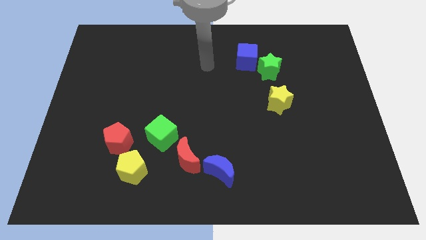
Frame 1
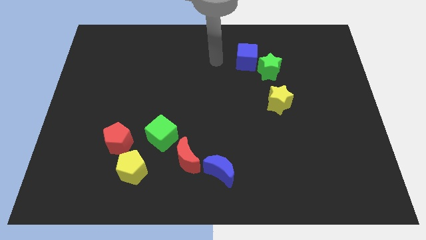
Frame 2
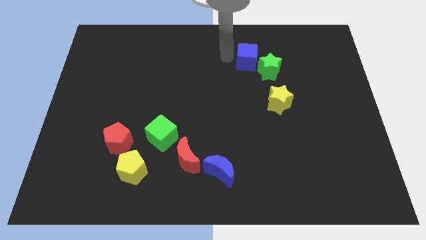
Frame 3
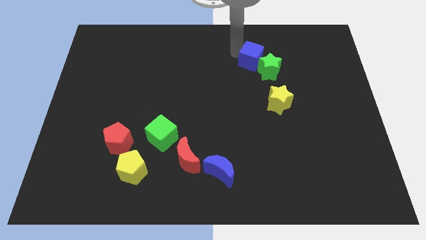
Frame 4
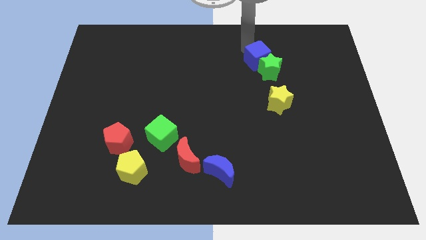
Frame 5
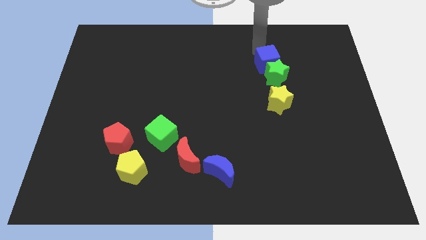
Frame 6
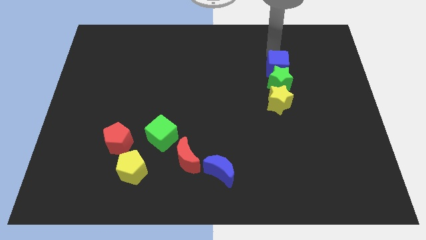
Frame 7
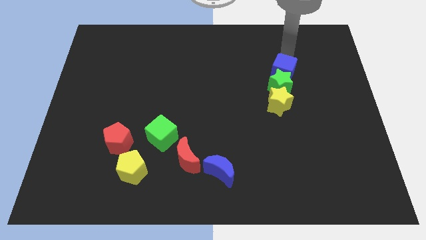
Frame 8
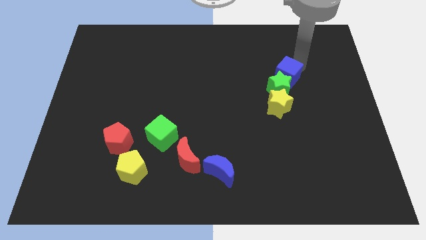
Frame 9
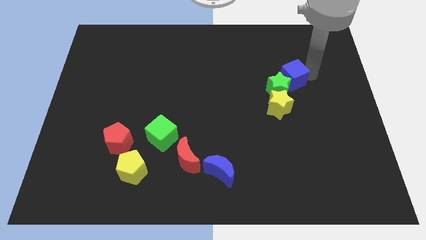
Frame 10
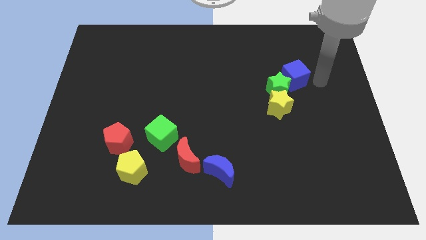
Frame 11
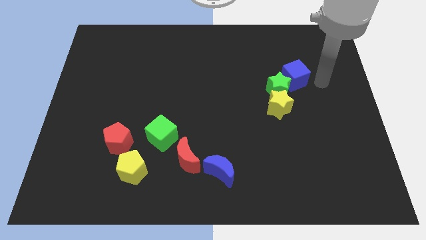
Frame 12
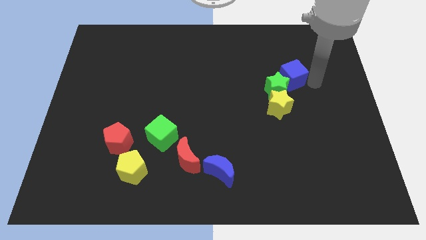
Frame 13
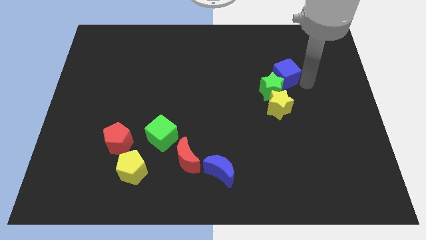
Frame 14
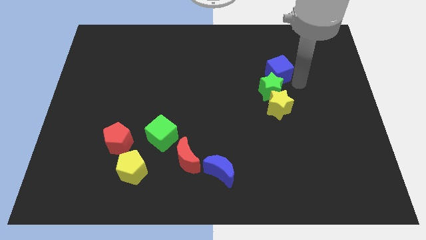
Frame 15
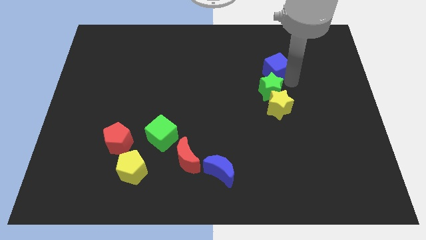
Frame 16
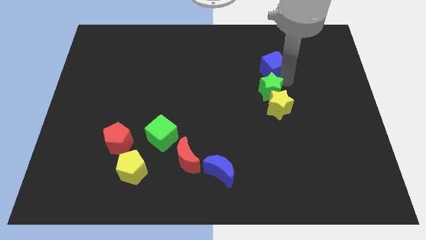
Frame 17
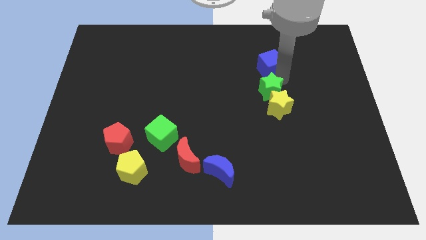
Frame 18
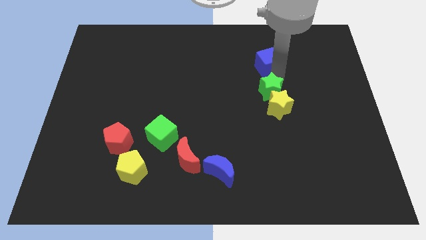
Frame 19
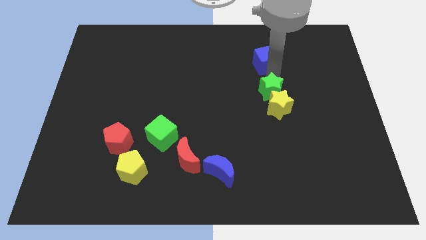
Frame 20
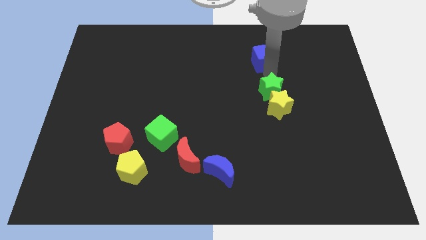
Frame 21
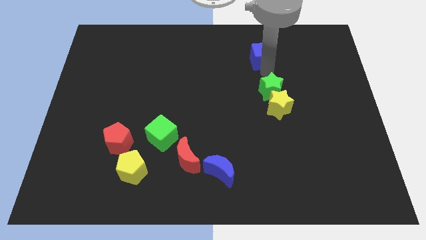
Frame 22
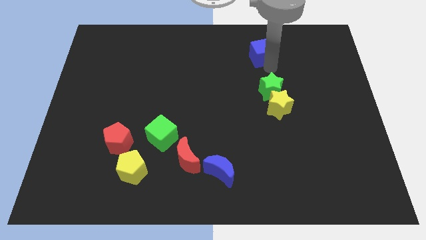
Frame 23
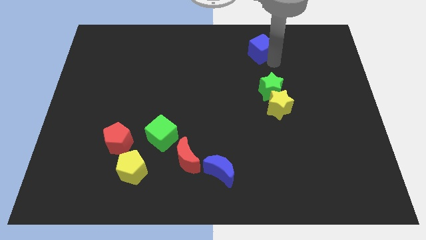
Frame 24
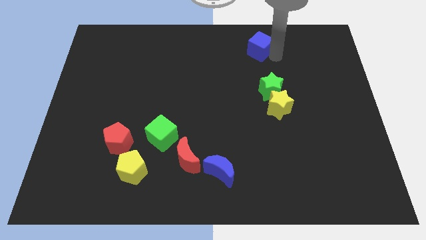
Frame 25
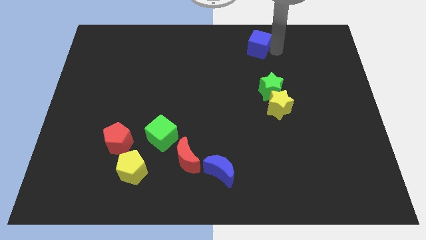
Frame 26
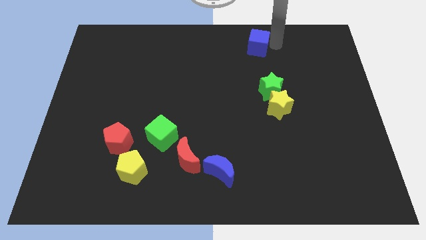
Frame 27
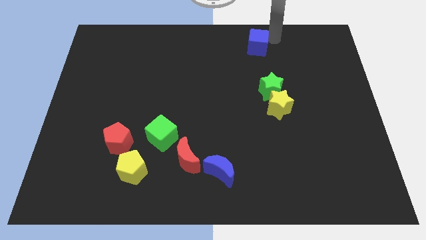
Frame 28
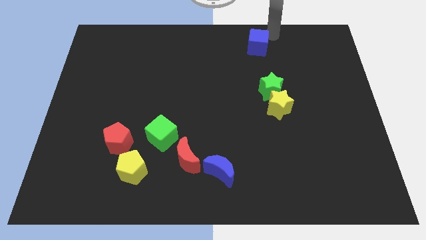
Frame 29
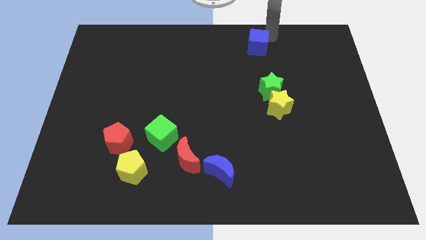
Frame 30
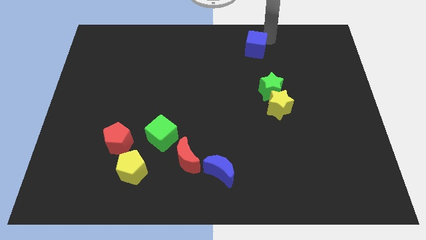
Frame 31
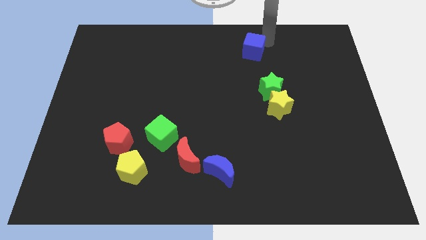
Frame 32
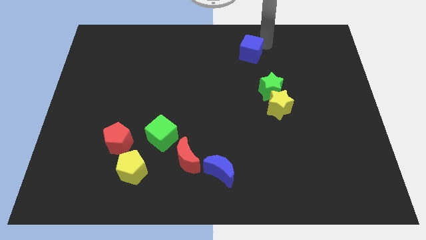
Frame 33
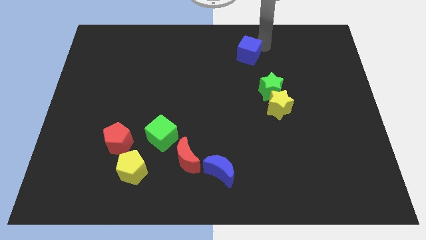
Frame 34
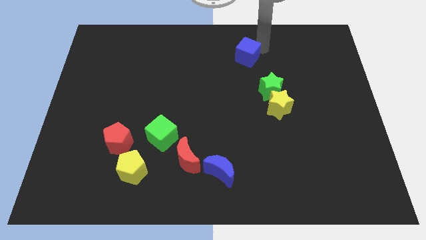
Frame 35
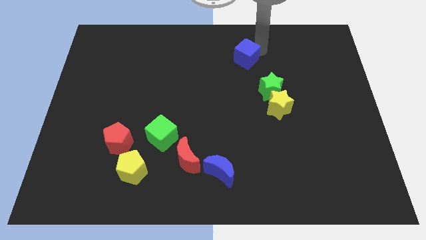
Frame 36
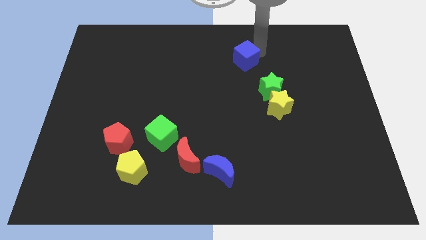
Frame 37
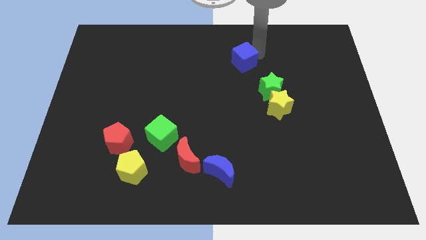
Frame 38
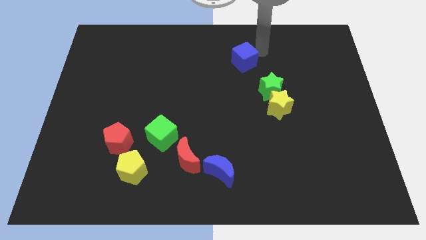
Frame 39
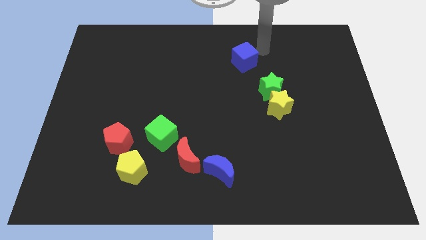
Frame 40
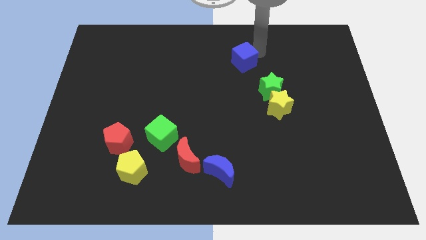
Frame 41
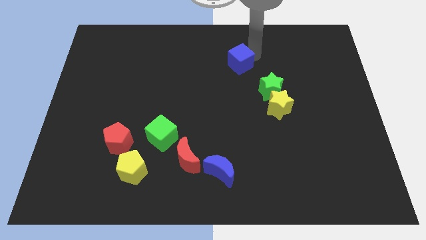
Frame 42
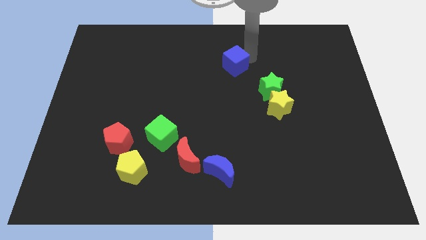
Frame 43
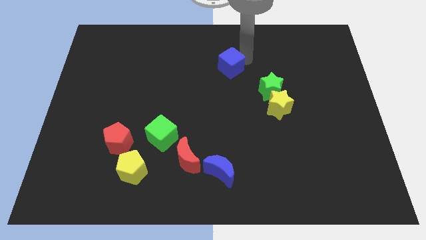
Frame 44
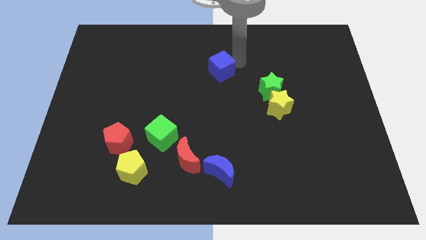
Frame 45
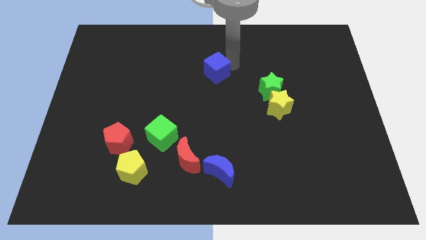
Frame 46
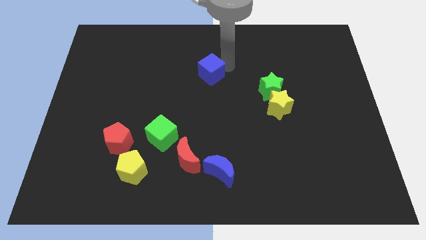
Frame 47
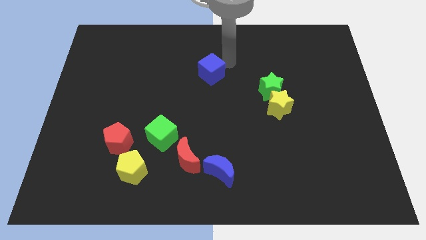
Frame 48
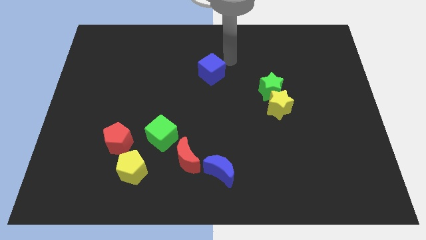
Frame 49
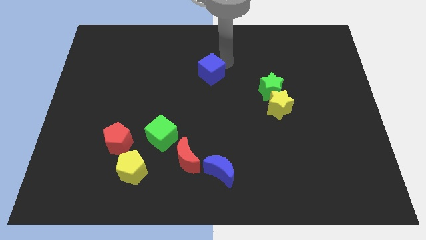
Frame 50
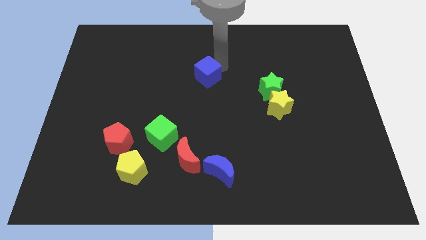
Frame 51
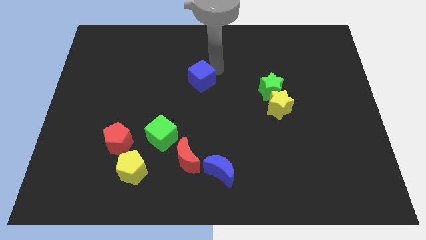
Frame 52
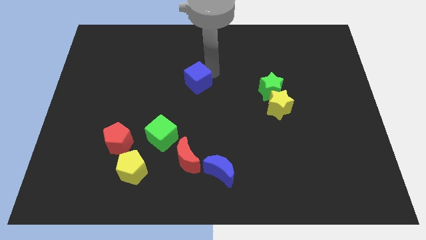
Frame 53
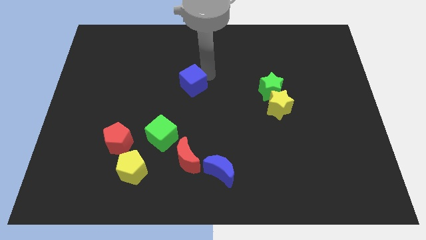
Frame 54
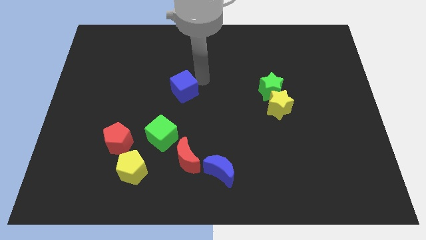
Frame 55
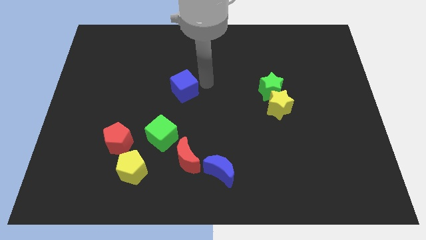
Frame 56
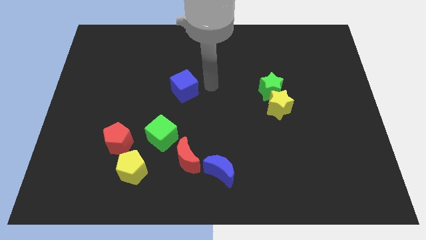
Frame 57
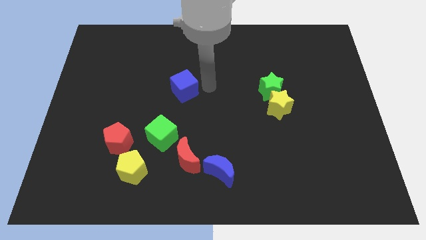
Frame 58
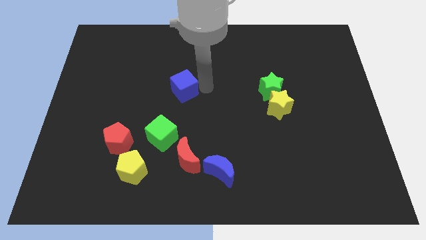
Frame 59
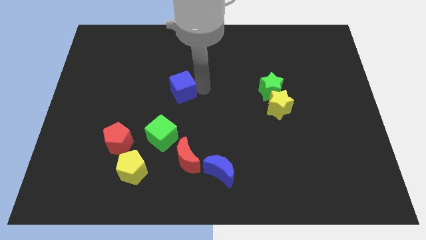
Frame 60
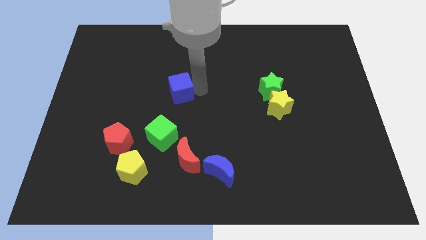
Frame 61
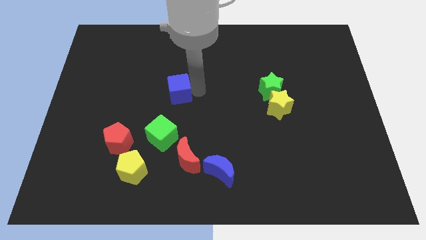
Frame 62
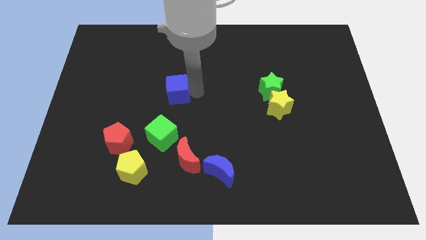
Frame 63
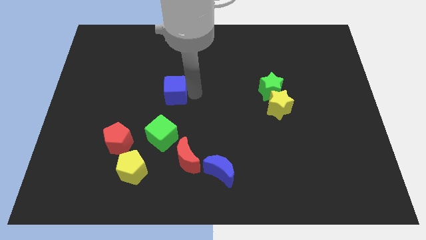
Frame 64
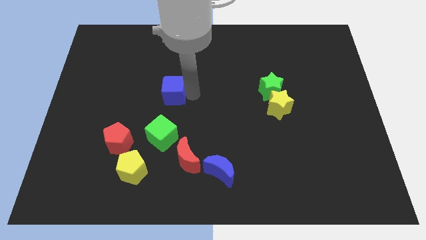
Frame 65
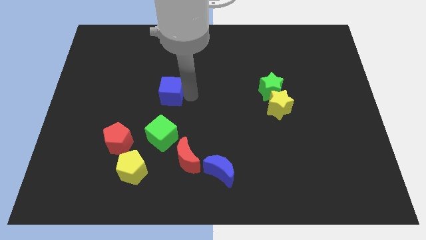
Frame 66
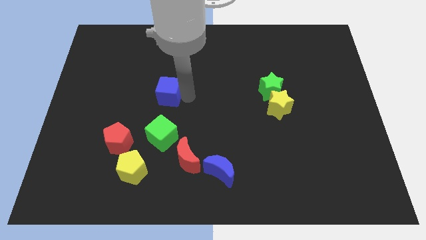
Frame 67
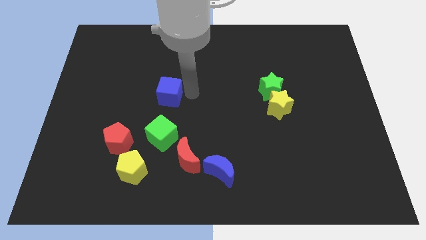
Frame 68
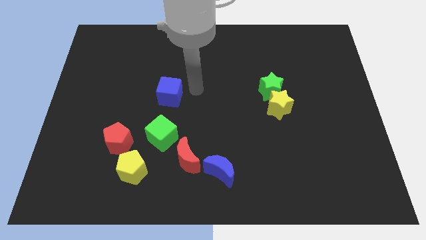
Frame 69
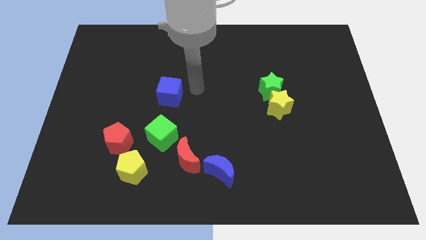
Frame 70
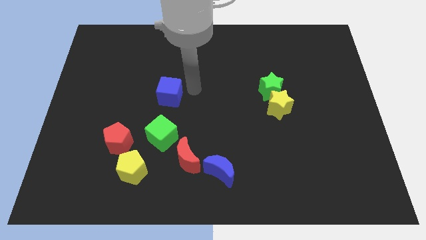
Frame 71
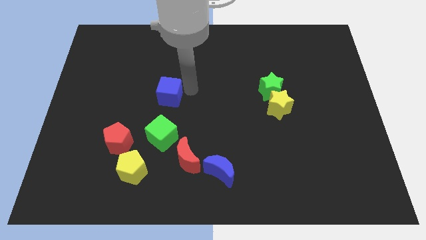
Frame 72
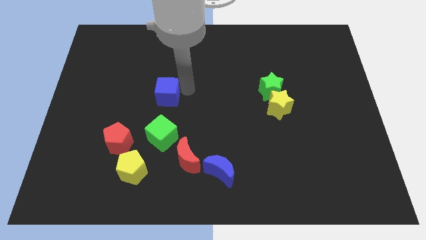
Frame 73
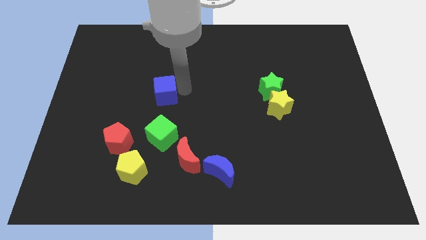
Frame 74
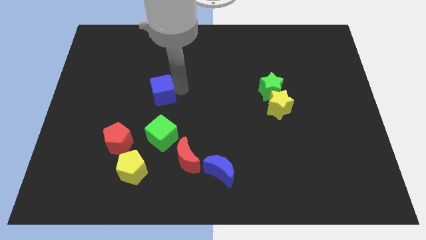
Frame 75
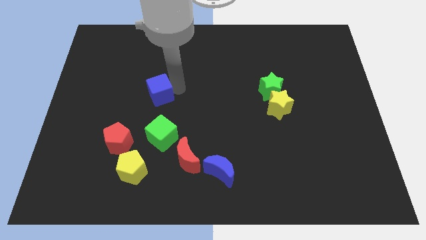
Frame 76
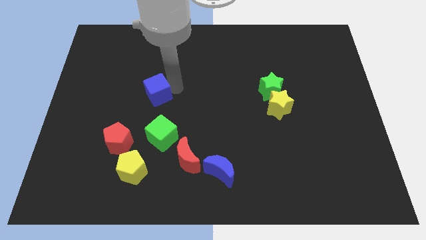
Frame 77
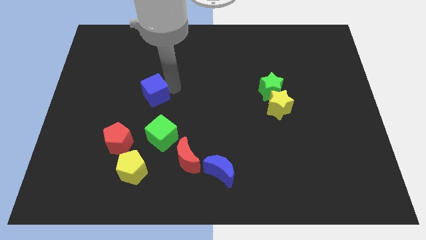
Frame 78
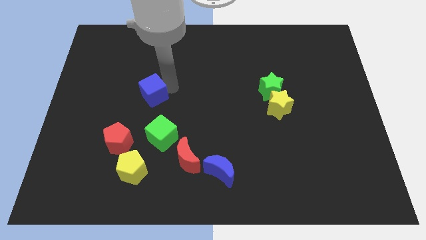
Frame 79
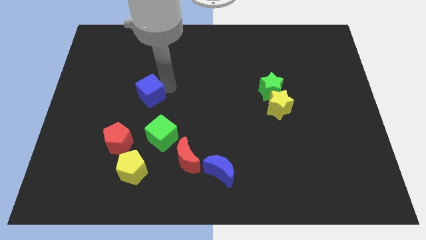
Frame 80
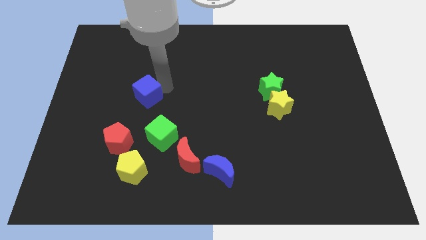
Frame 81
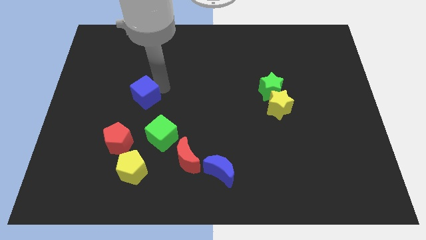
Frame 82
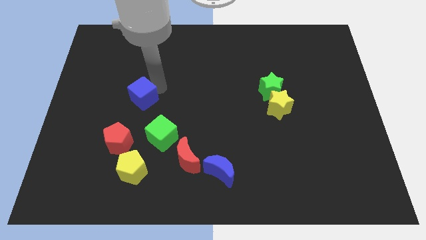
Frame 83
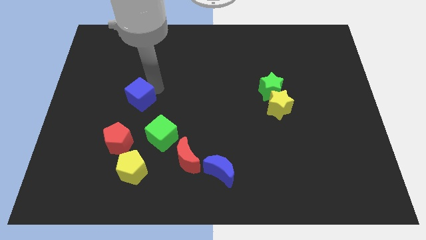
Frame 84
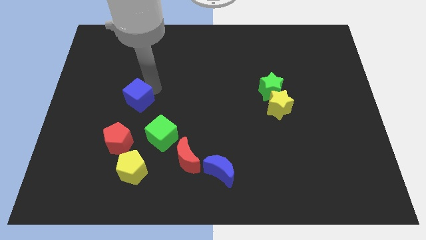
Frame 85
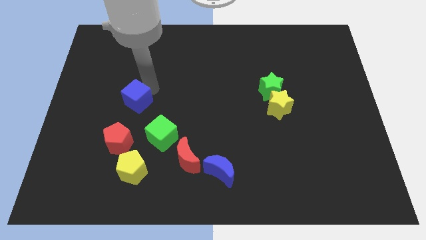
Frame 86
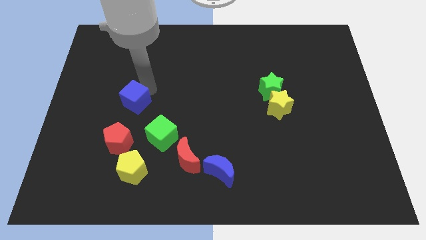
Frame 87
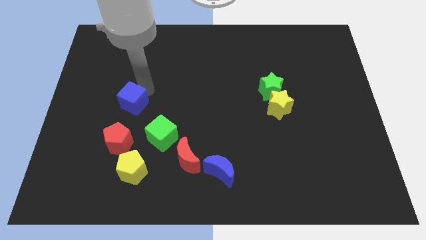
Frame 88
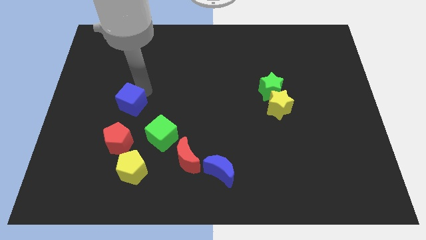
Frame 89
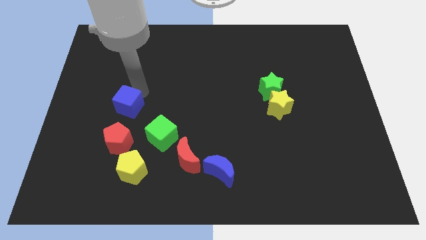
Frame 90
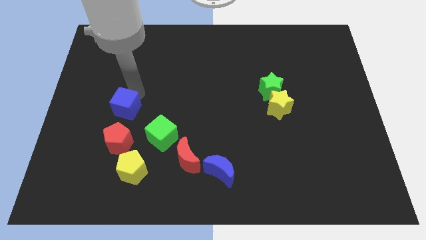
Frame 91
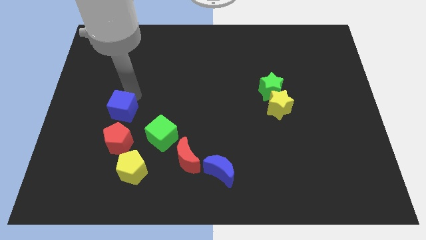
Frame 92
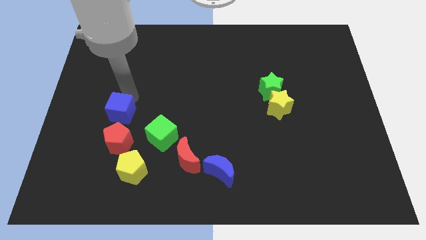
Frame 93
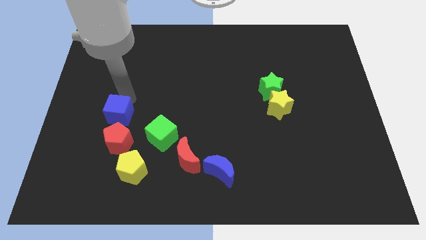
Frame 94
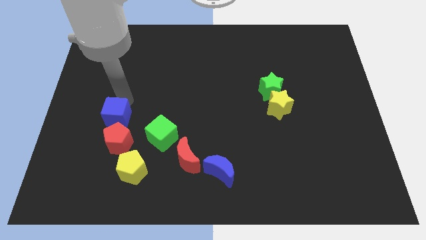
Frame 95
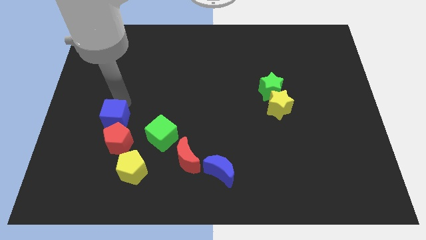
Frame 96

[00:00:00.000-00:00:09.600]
move the blue cube just left of the green cube
